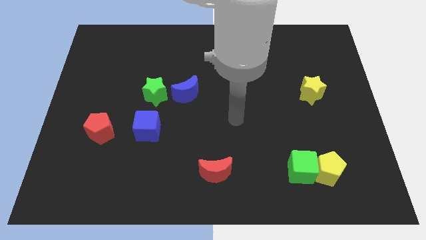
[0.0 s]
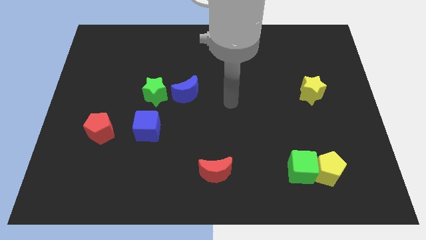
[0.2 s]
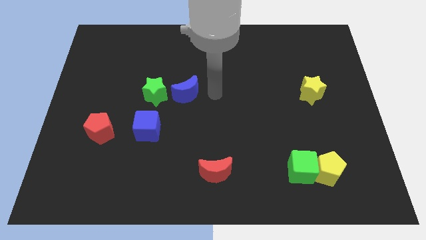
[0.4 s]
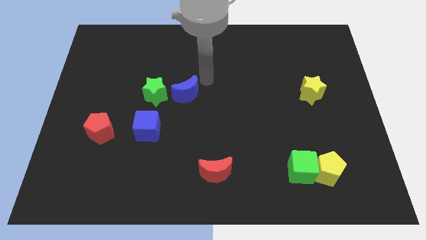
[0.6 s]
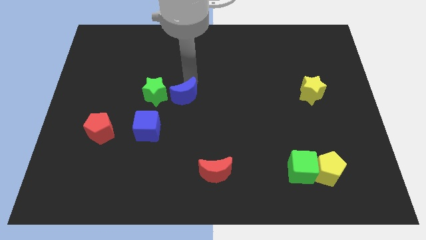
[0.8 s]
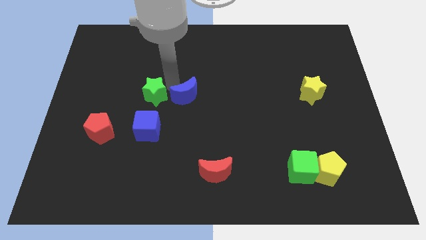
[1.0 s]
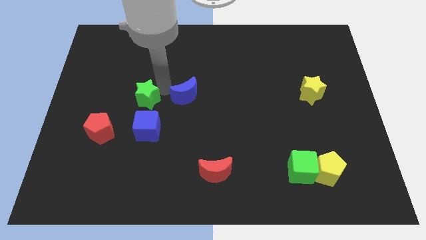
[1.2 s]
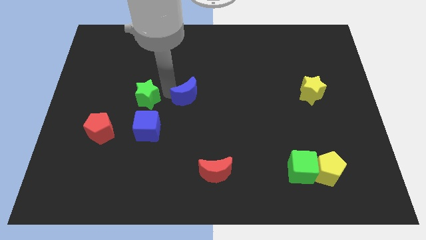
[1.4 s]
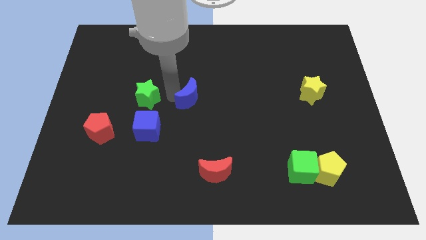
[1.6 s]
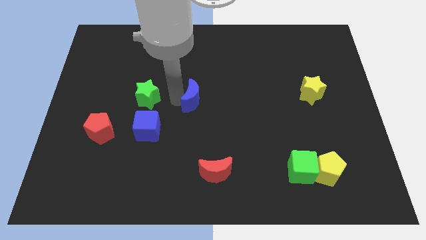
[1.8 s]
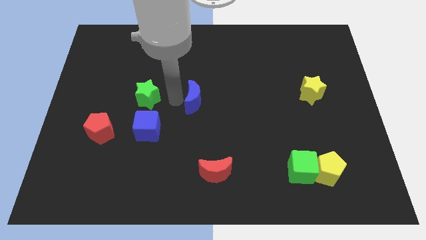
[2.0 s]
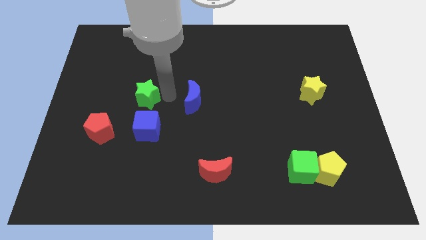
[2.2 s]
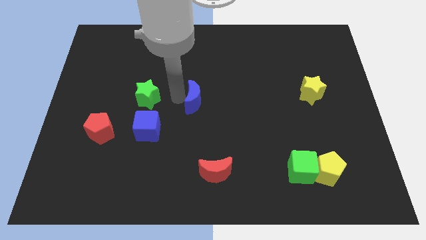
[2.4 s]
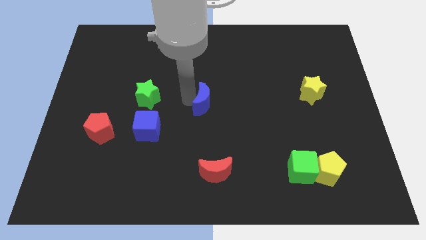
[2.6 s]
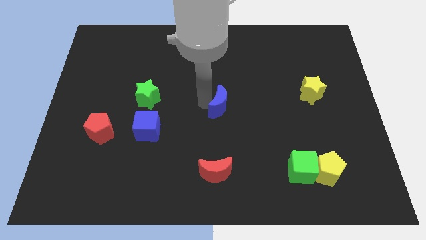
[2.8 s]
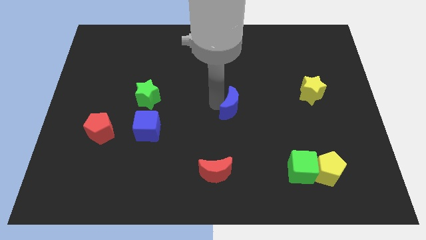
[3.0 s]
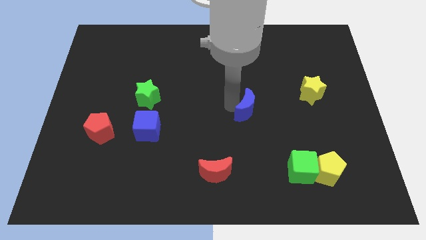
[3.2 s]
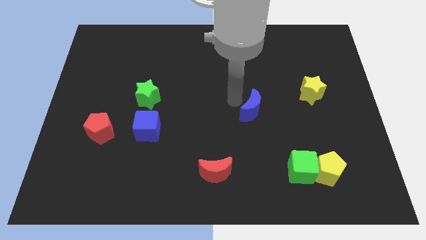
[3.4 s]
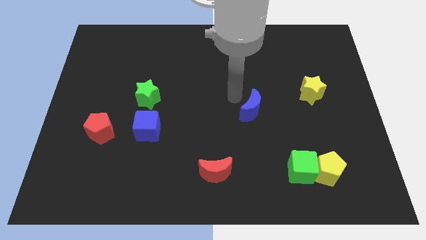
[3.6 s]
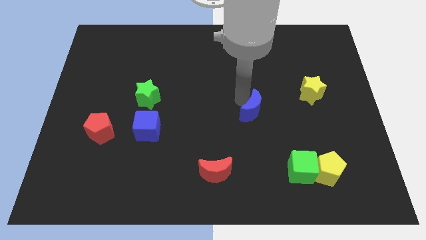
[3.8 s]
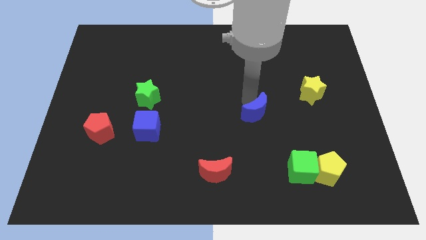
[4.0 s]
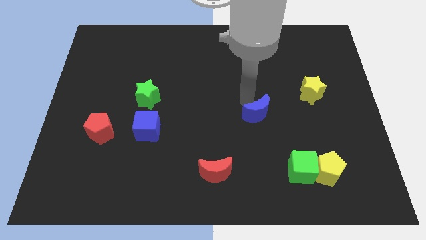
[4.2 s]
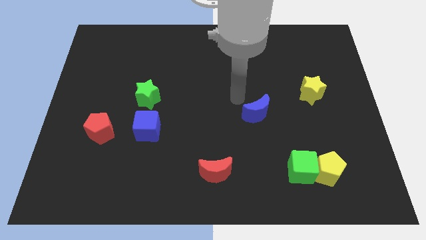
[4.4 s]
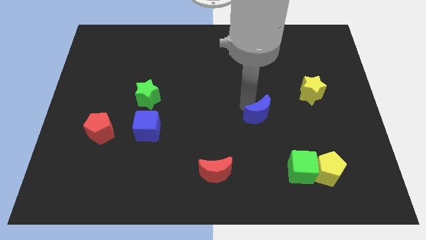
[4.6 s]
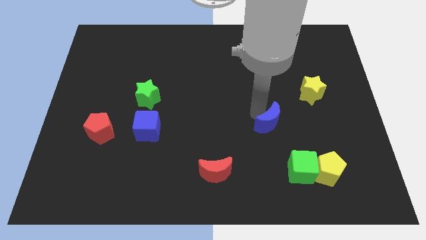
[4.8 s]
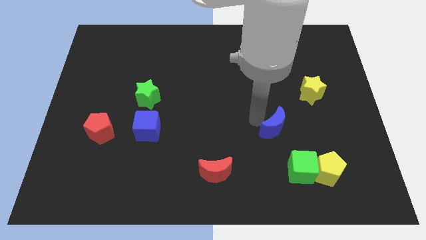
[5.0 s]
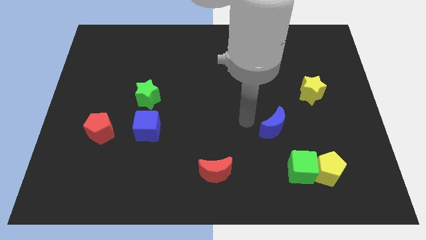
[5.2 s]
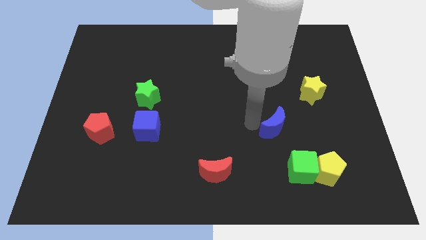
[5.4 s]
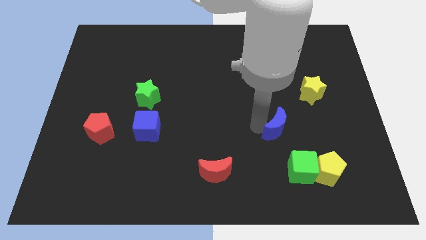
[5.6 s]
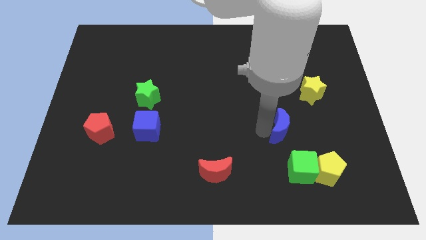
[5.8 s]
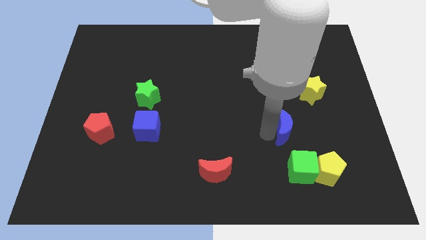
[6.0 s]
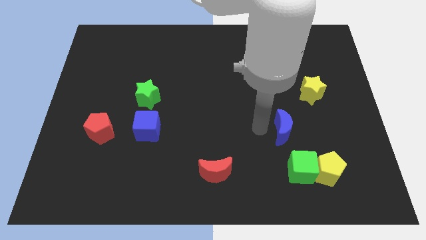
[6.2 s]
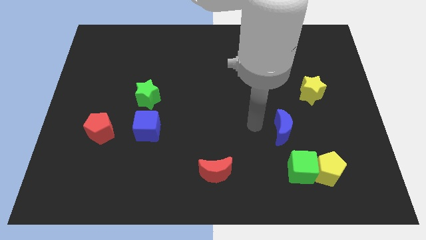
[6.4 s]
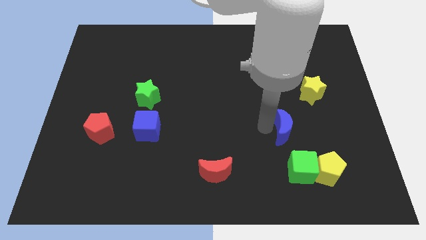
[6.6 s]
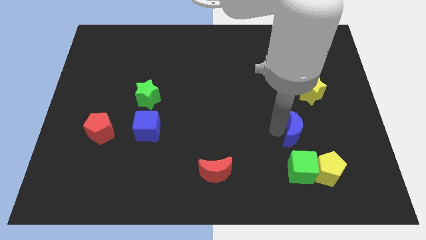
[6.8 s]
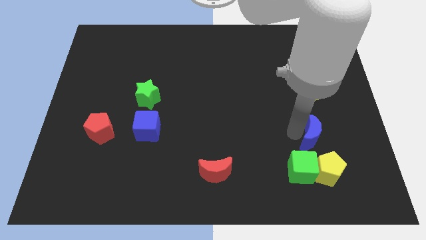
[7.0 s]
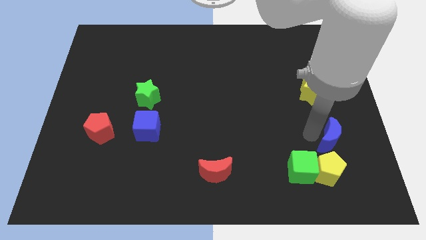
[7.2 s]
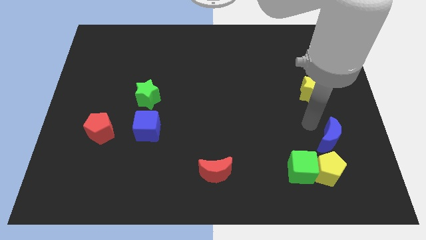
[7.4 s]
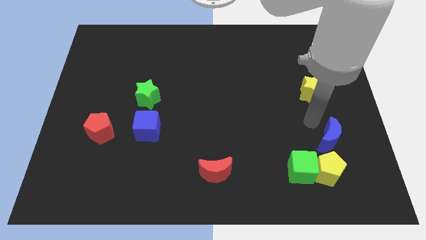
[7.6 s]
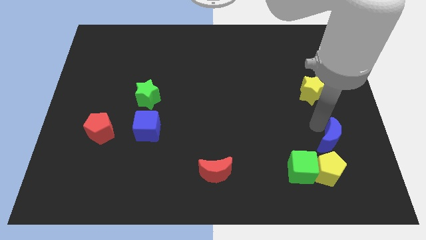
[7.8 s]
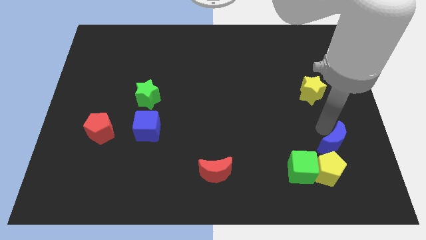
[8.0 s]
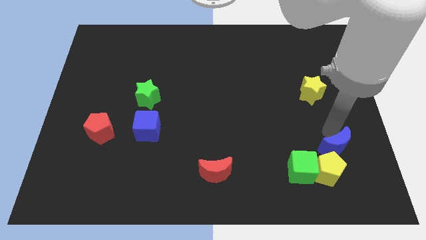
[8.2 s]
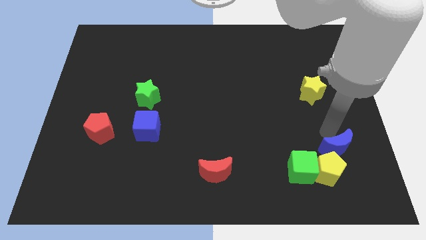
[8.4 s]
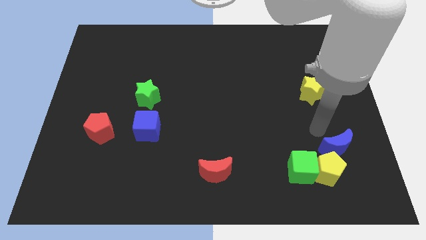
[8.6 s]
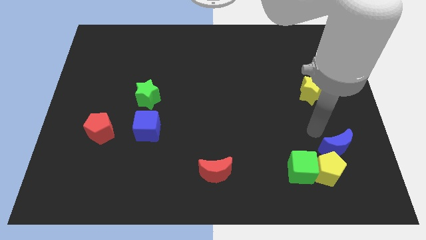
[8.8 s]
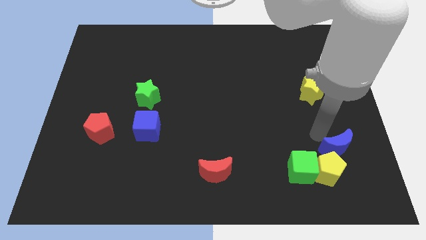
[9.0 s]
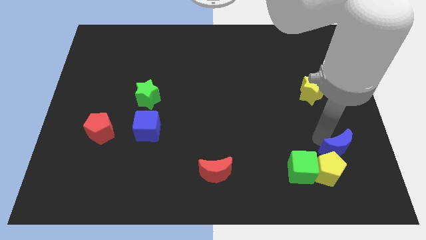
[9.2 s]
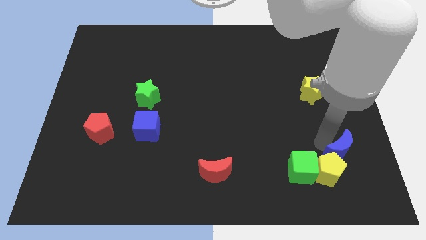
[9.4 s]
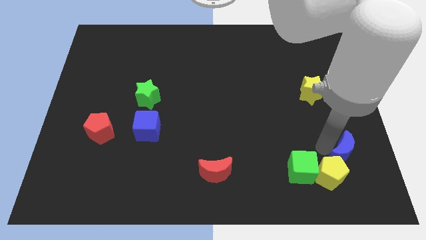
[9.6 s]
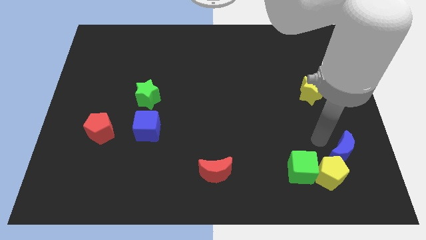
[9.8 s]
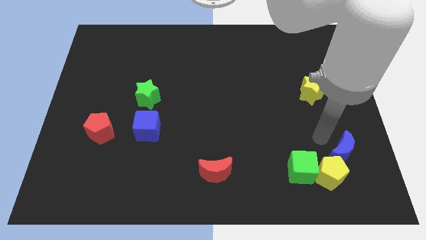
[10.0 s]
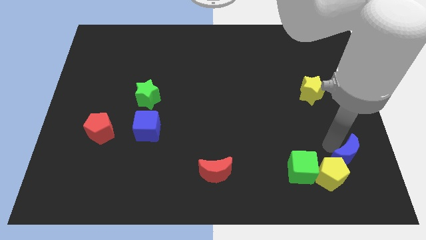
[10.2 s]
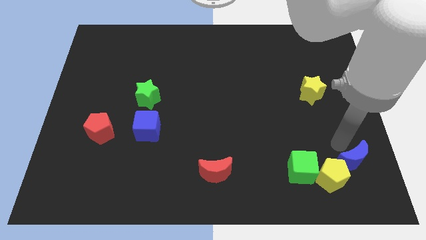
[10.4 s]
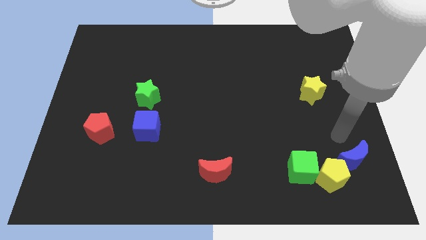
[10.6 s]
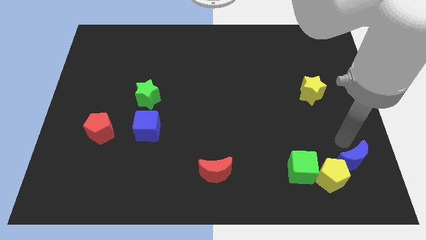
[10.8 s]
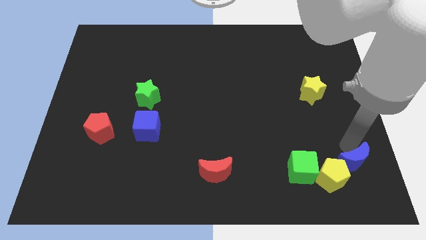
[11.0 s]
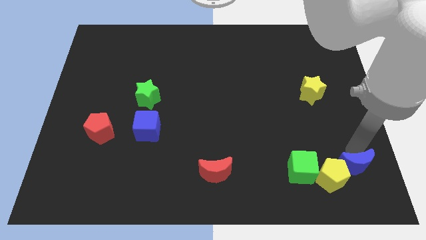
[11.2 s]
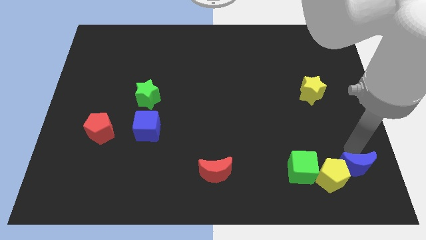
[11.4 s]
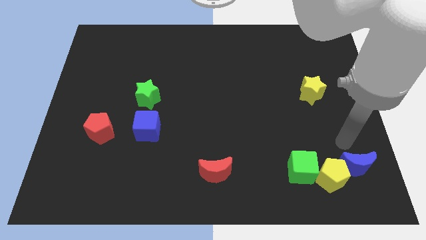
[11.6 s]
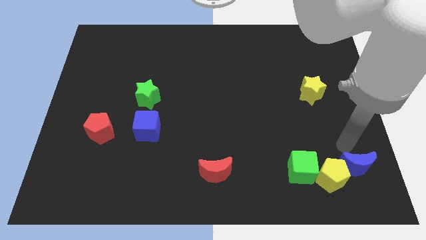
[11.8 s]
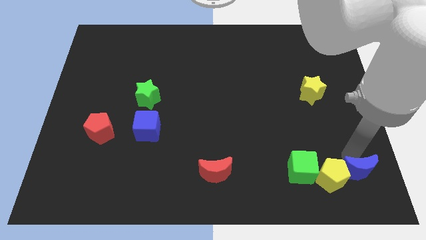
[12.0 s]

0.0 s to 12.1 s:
slide the blue moon to the lower right corner
